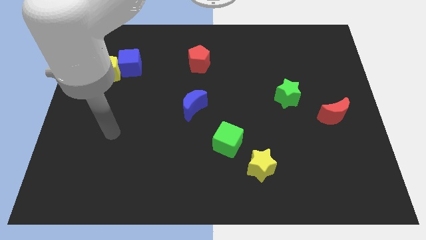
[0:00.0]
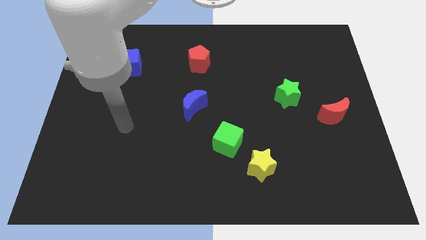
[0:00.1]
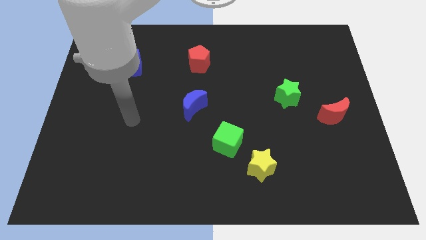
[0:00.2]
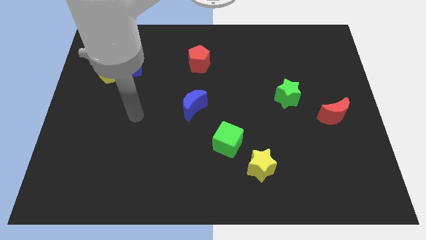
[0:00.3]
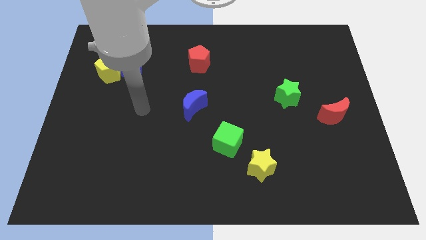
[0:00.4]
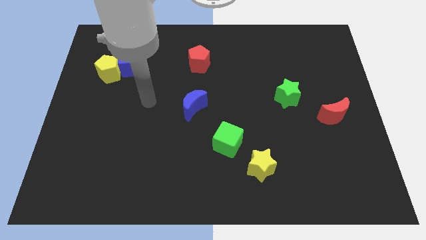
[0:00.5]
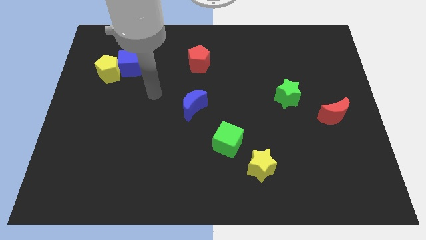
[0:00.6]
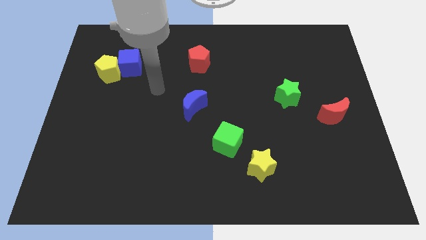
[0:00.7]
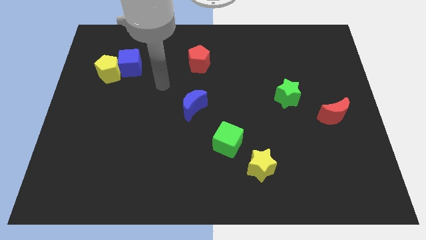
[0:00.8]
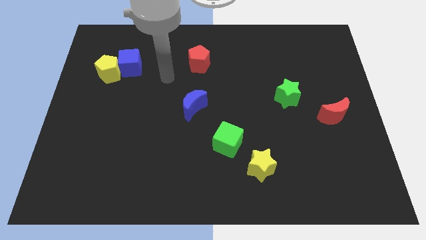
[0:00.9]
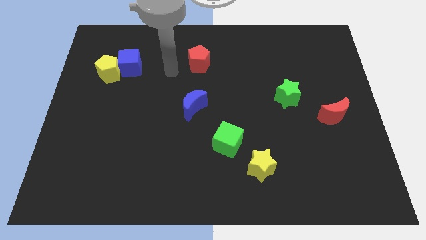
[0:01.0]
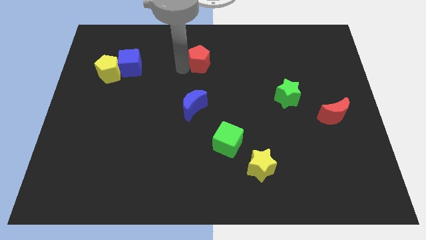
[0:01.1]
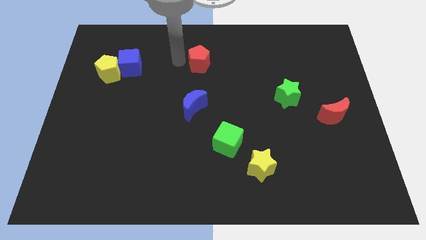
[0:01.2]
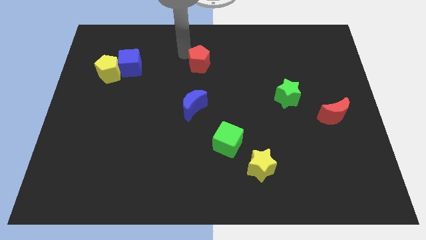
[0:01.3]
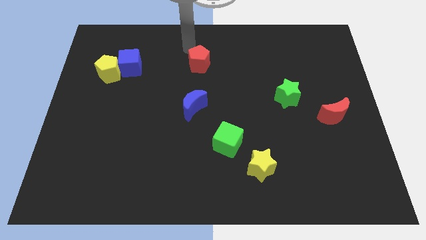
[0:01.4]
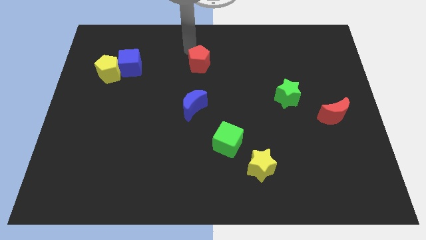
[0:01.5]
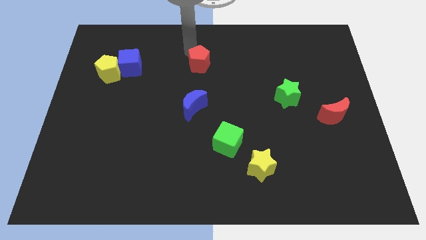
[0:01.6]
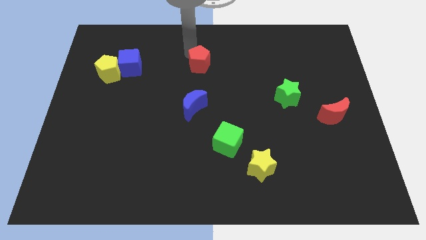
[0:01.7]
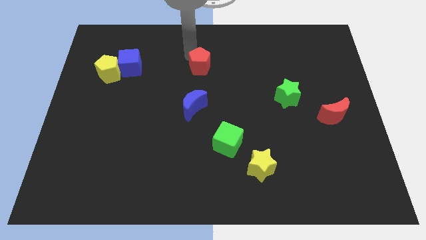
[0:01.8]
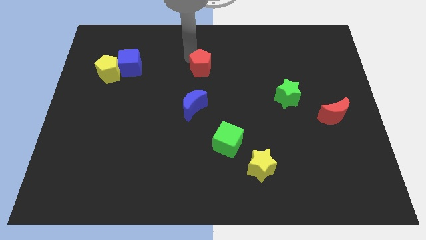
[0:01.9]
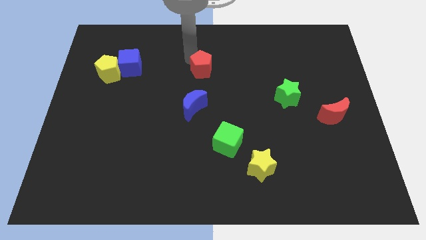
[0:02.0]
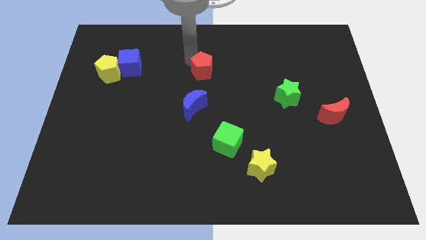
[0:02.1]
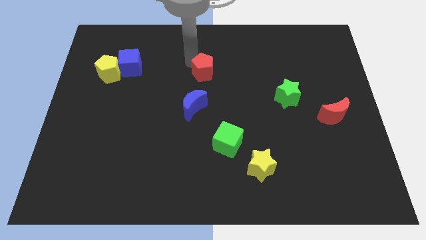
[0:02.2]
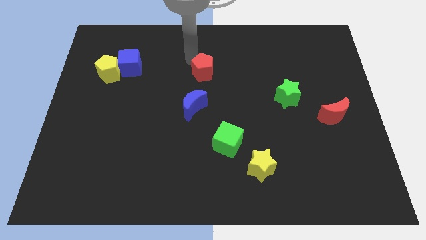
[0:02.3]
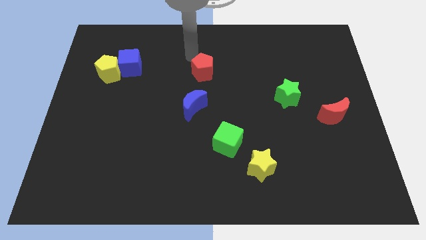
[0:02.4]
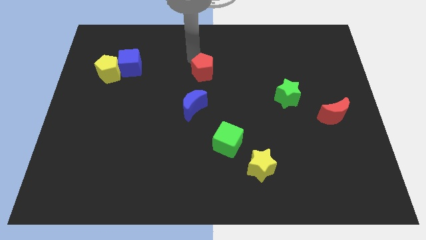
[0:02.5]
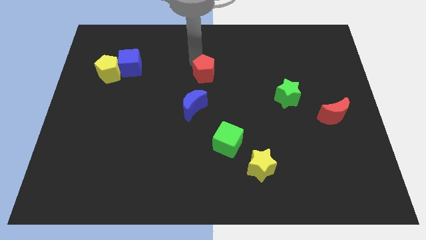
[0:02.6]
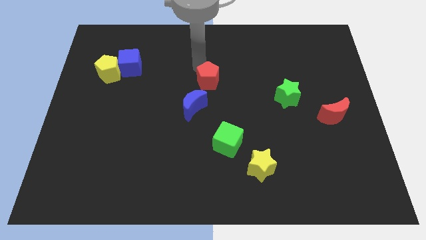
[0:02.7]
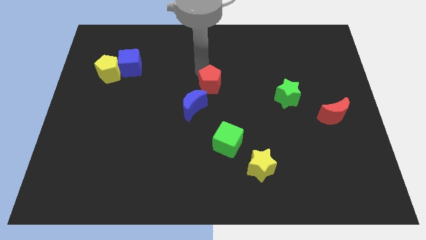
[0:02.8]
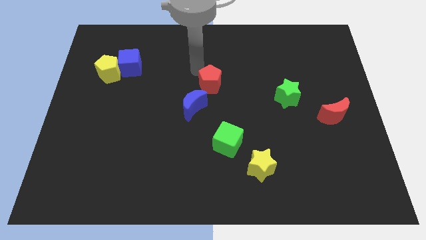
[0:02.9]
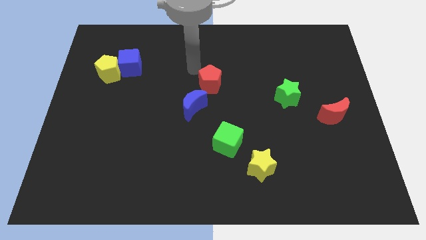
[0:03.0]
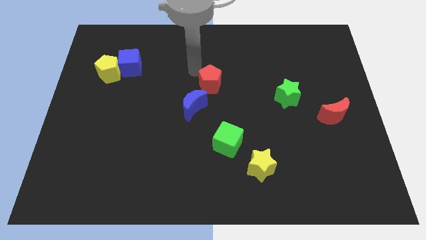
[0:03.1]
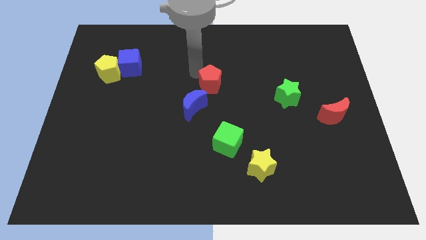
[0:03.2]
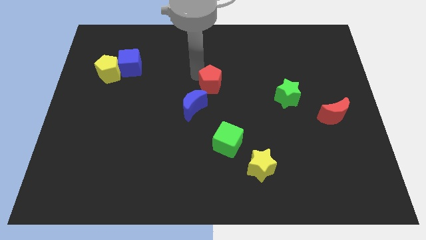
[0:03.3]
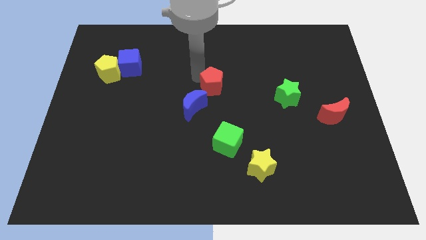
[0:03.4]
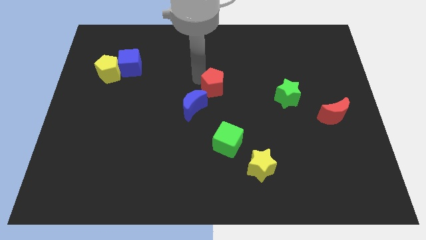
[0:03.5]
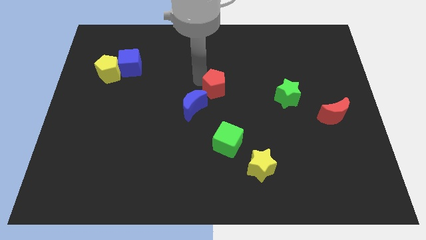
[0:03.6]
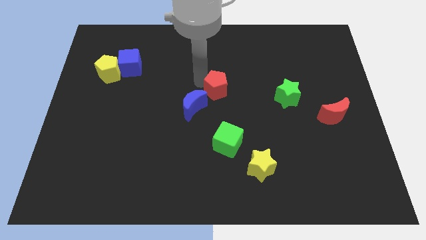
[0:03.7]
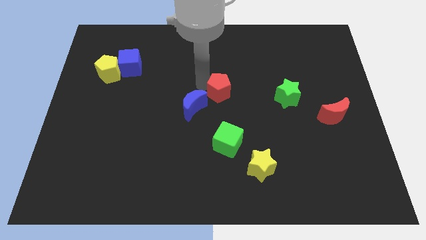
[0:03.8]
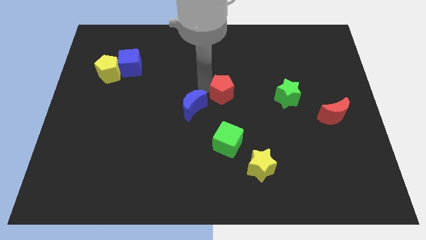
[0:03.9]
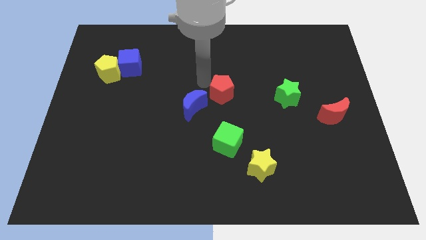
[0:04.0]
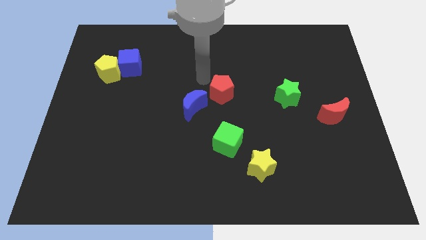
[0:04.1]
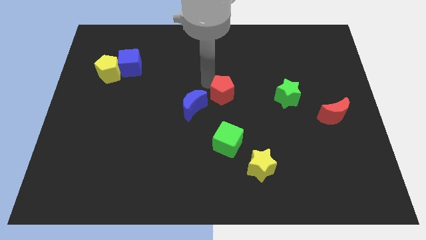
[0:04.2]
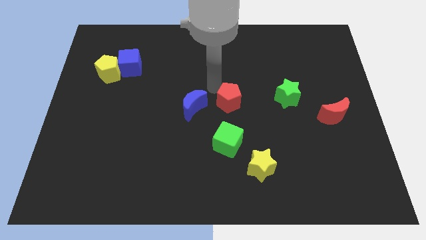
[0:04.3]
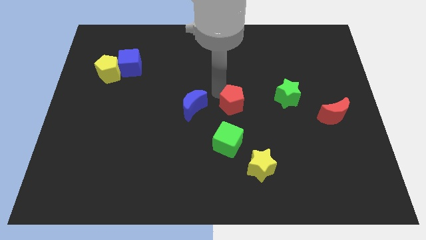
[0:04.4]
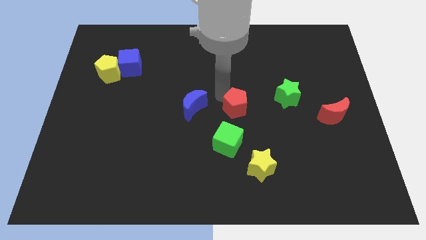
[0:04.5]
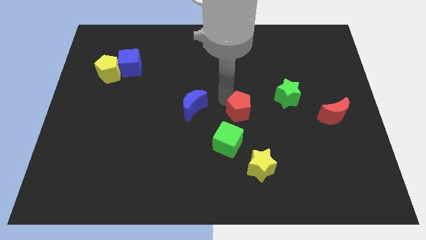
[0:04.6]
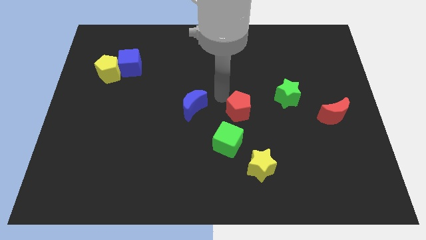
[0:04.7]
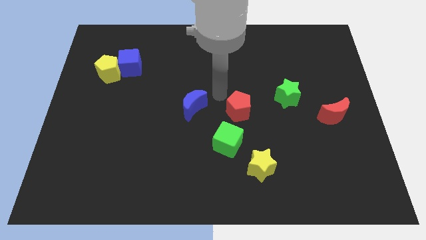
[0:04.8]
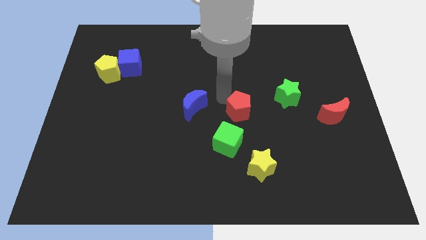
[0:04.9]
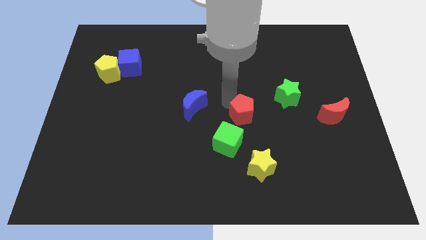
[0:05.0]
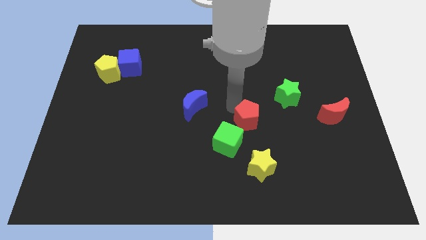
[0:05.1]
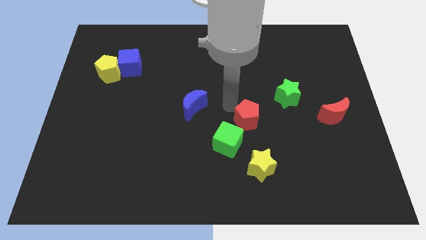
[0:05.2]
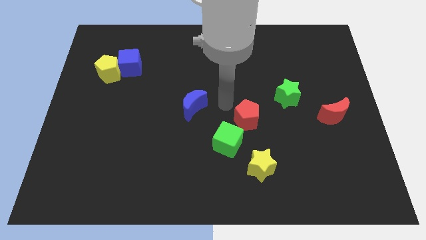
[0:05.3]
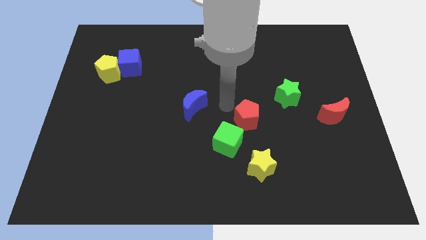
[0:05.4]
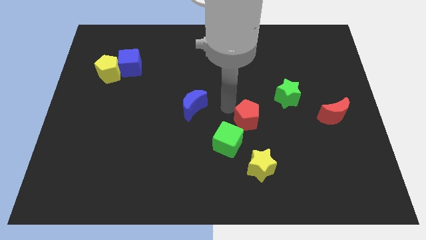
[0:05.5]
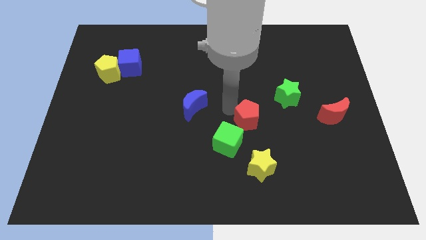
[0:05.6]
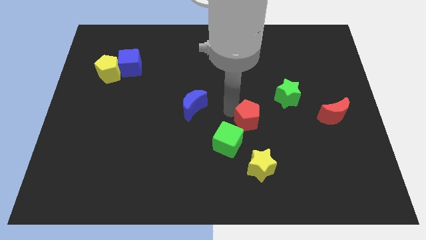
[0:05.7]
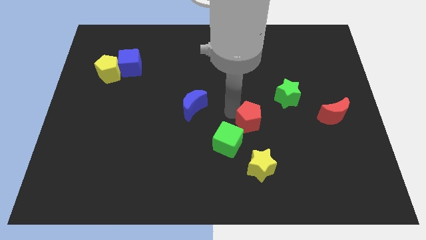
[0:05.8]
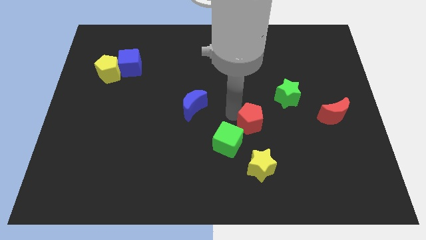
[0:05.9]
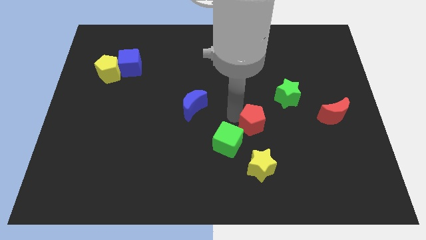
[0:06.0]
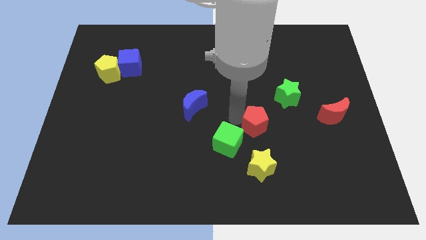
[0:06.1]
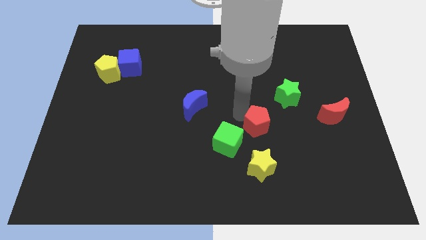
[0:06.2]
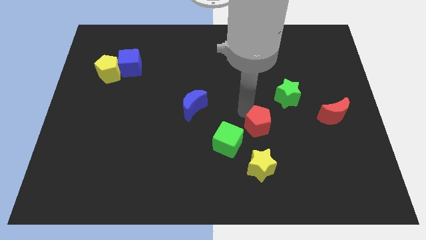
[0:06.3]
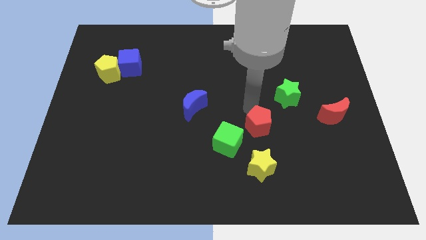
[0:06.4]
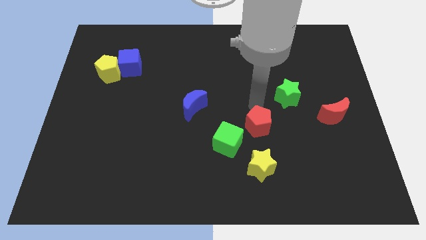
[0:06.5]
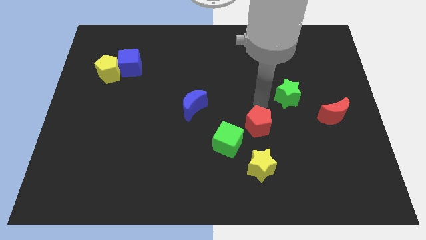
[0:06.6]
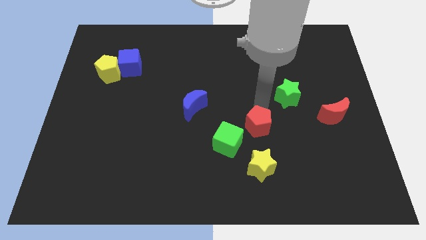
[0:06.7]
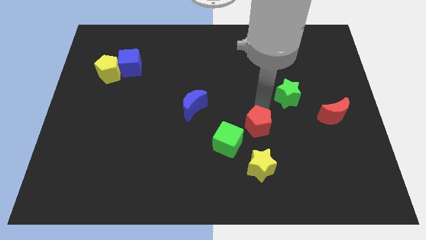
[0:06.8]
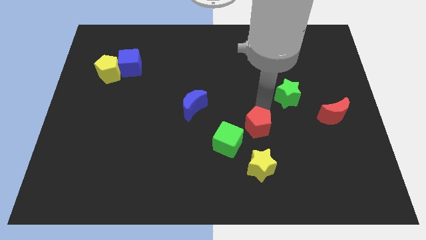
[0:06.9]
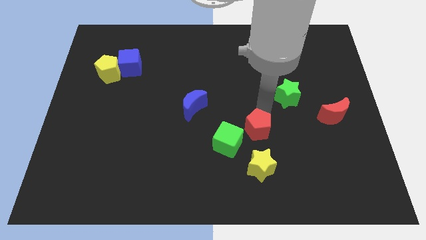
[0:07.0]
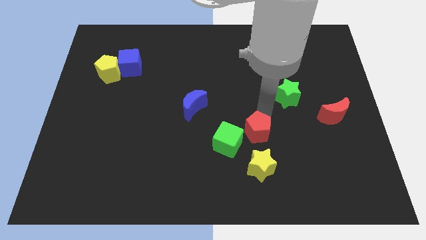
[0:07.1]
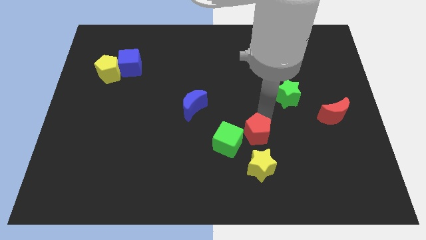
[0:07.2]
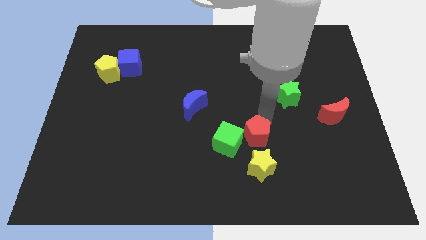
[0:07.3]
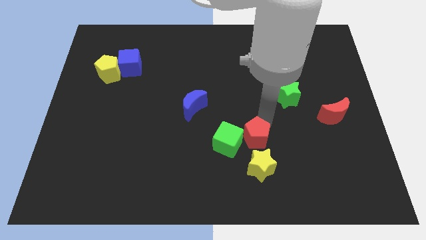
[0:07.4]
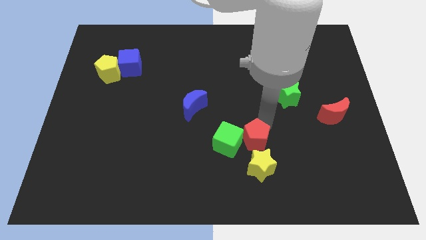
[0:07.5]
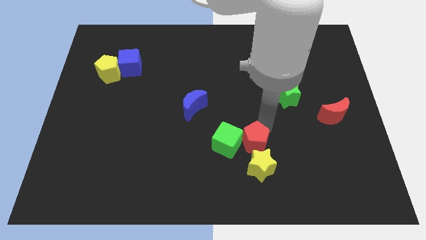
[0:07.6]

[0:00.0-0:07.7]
put the red pentagon to the yellow star
